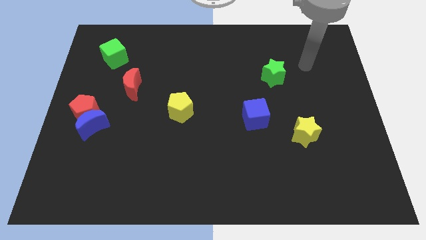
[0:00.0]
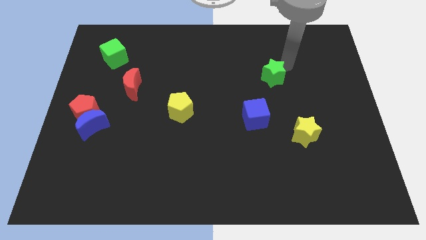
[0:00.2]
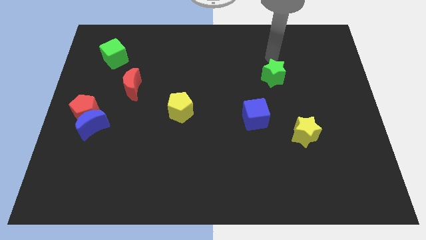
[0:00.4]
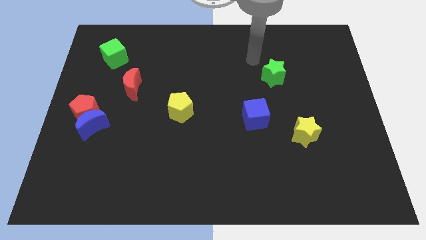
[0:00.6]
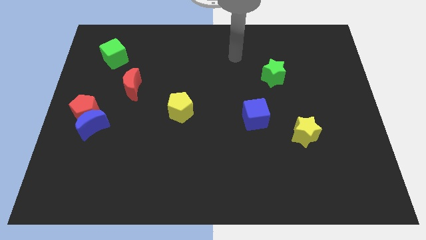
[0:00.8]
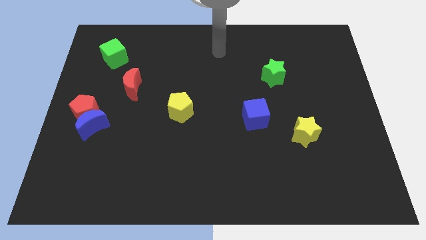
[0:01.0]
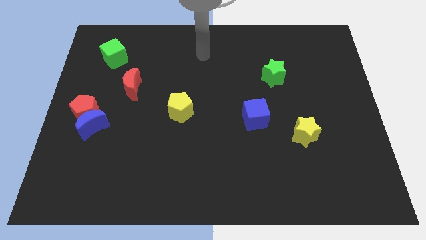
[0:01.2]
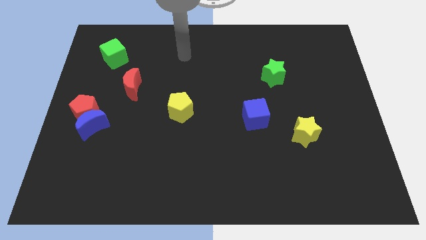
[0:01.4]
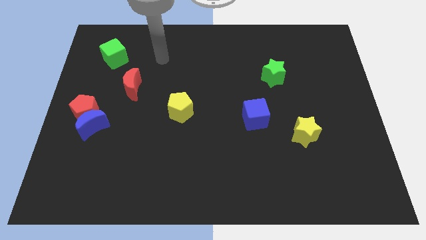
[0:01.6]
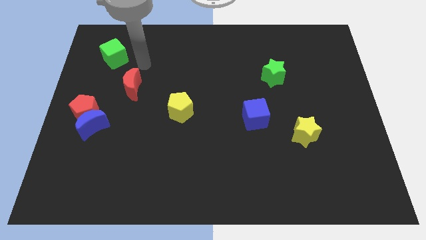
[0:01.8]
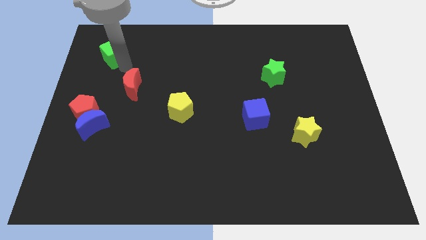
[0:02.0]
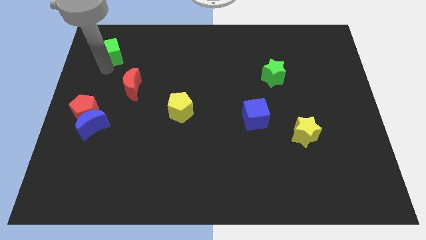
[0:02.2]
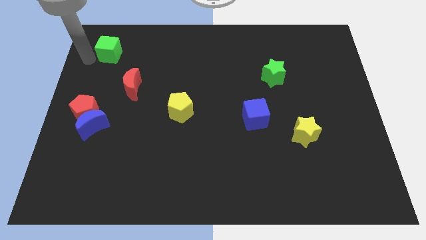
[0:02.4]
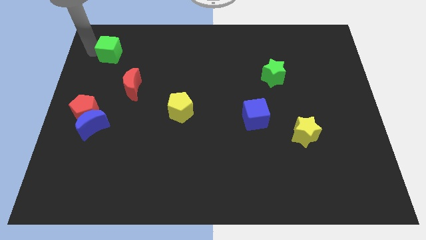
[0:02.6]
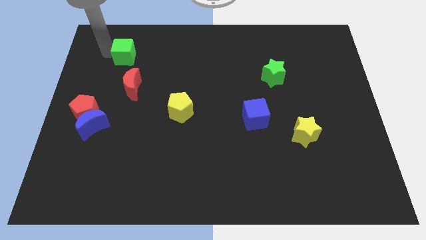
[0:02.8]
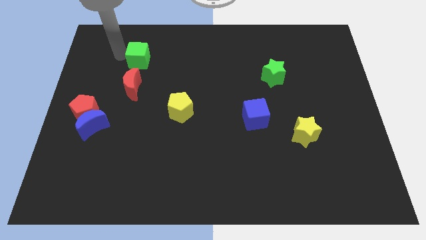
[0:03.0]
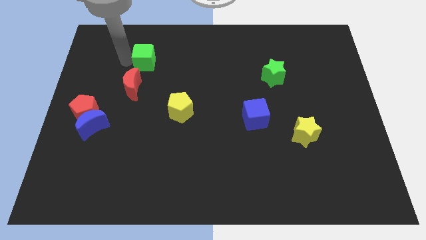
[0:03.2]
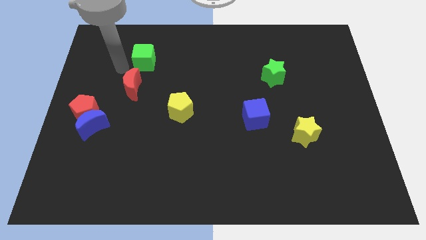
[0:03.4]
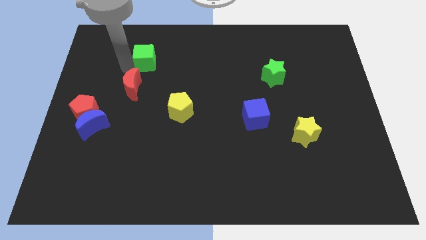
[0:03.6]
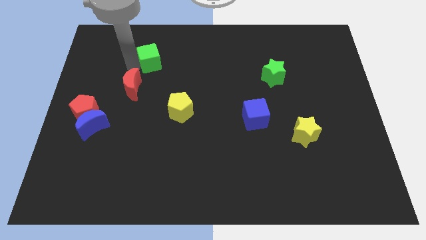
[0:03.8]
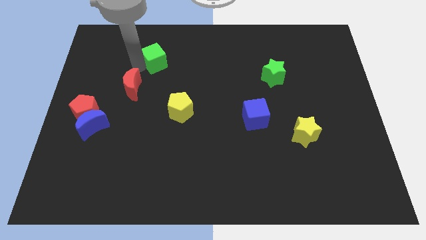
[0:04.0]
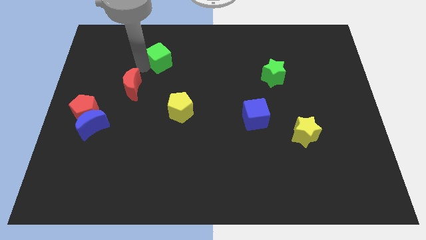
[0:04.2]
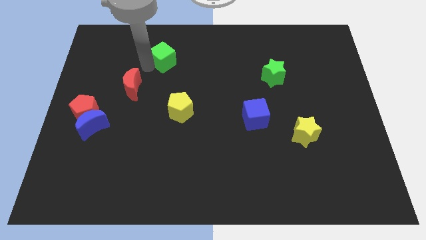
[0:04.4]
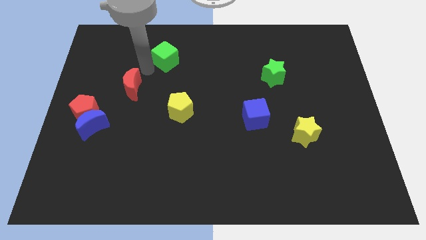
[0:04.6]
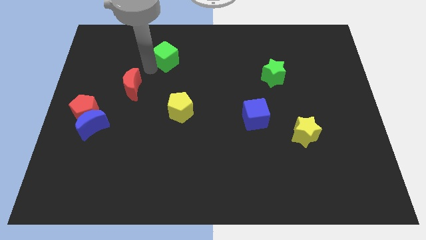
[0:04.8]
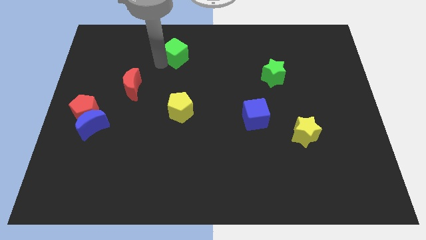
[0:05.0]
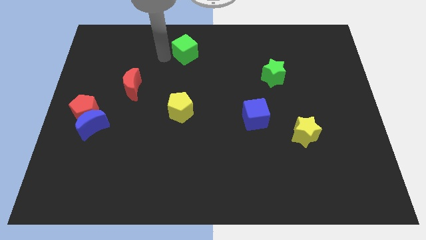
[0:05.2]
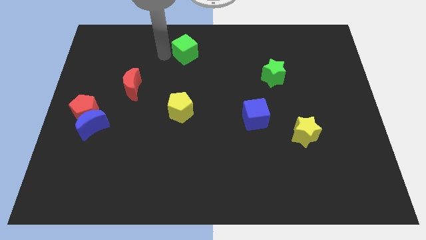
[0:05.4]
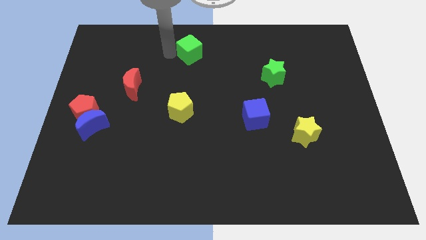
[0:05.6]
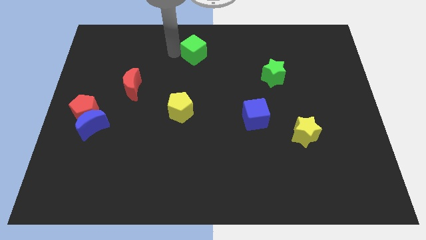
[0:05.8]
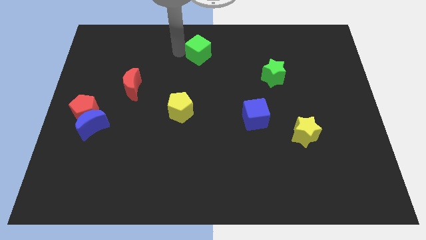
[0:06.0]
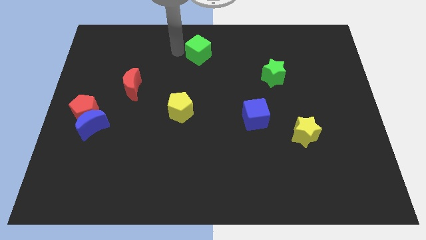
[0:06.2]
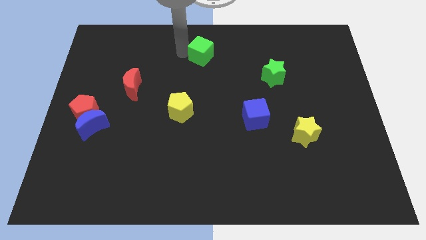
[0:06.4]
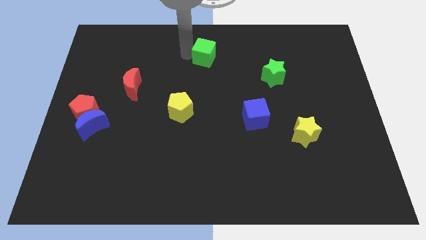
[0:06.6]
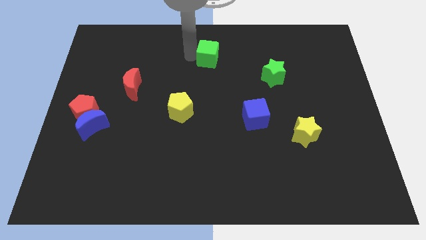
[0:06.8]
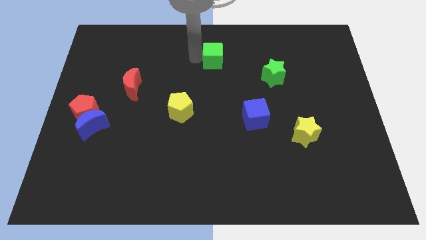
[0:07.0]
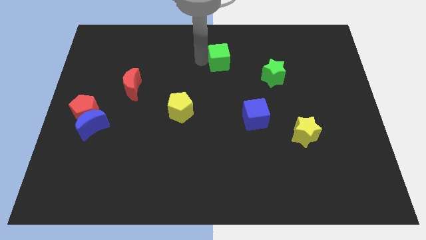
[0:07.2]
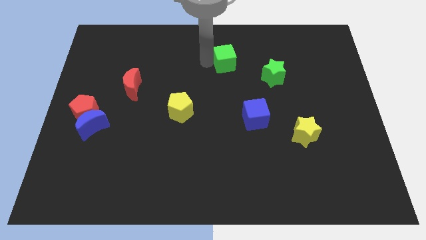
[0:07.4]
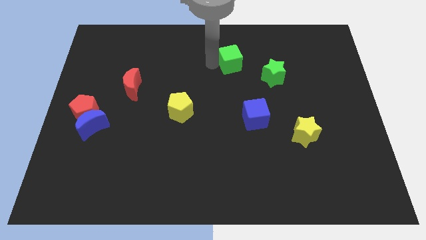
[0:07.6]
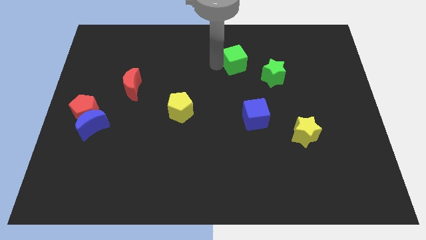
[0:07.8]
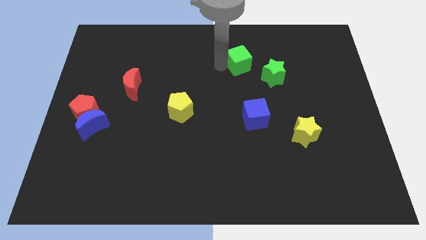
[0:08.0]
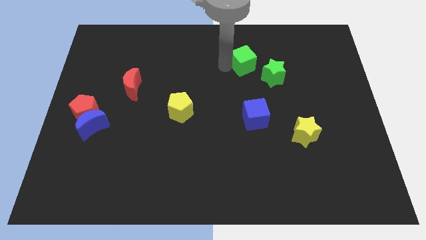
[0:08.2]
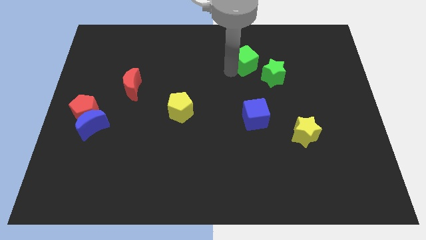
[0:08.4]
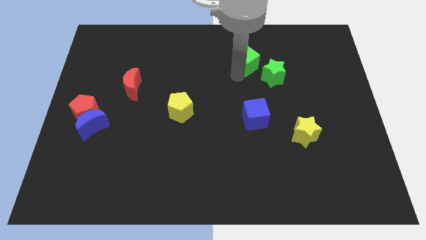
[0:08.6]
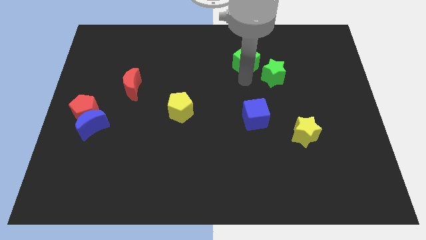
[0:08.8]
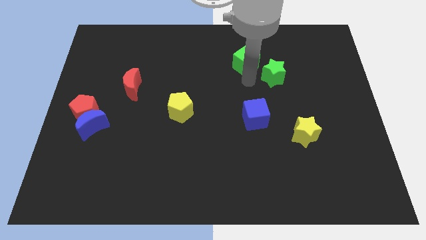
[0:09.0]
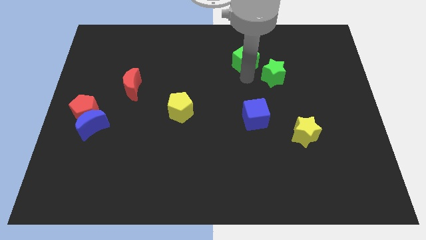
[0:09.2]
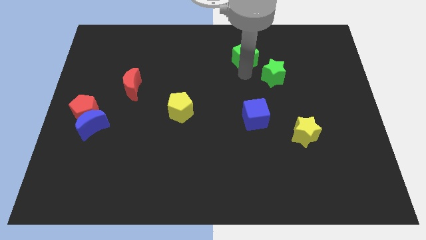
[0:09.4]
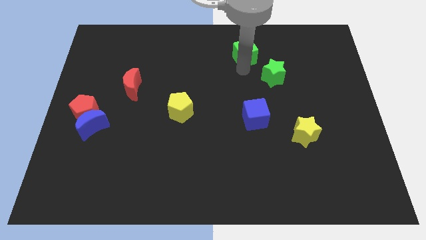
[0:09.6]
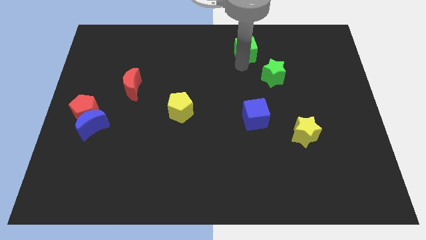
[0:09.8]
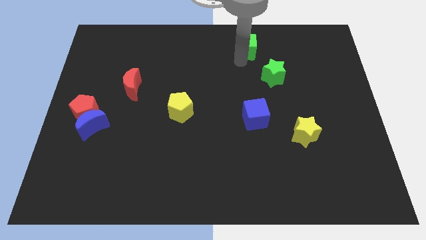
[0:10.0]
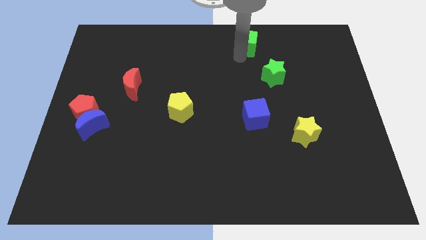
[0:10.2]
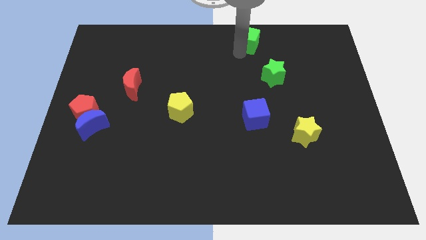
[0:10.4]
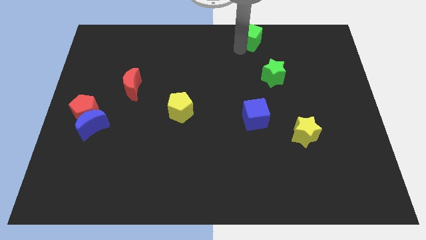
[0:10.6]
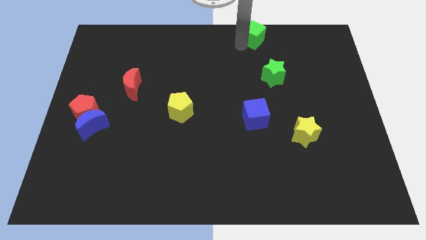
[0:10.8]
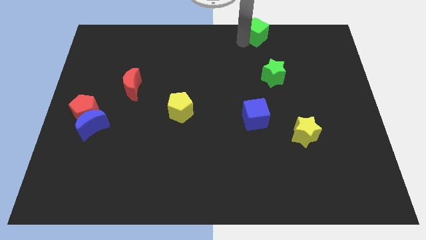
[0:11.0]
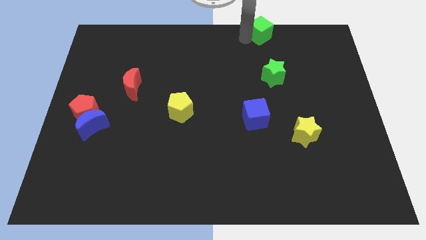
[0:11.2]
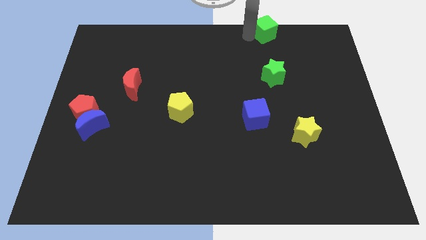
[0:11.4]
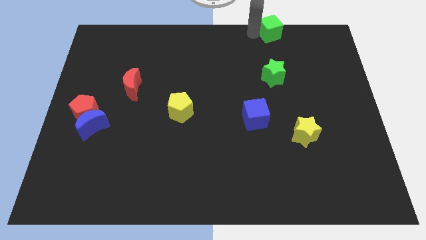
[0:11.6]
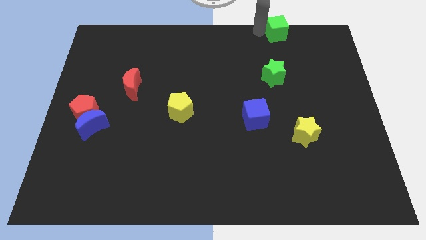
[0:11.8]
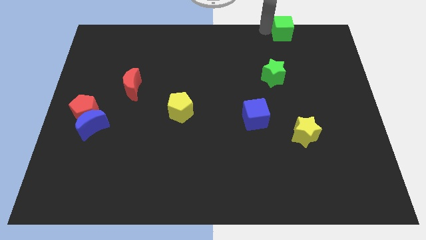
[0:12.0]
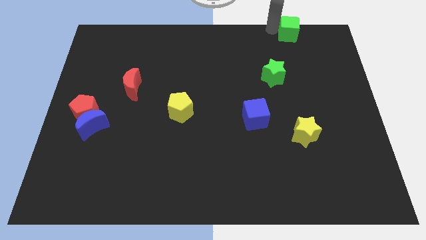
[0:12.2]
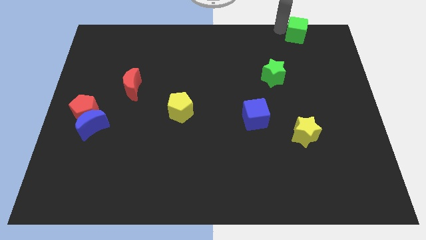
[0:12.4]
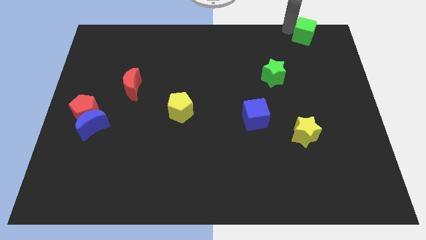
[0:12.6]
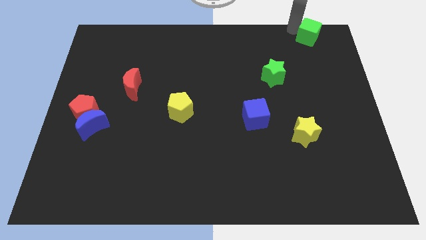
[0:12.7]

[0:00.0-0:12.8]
slide the green cube to the top right corner
